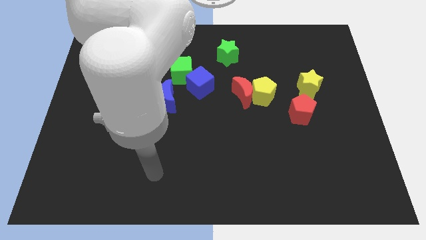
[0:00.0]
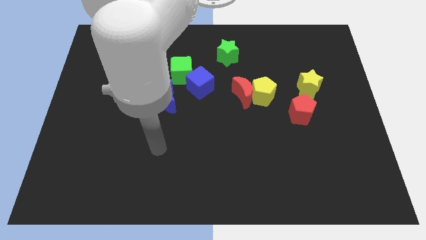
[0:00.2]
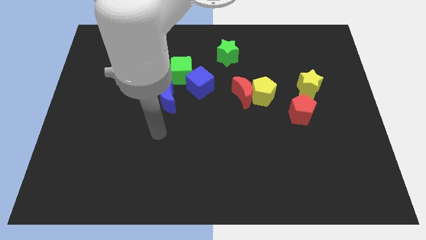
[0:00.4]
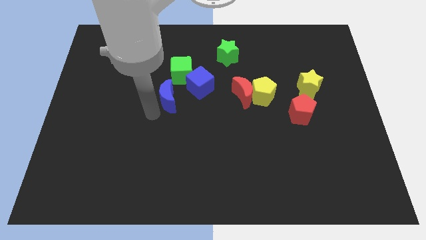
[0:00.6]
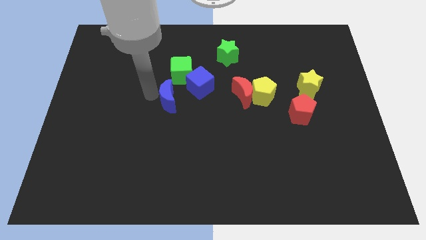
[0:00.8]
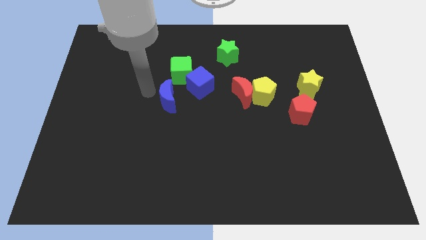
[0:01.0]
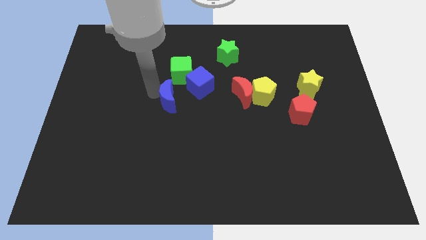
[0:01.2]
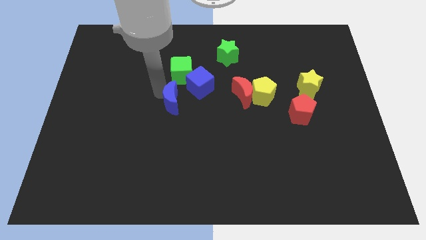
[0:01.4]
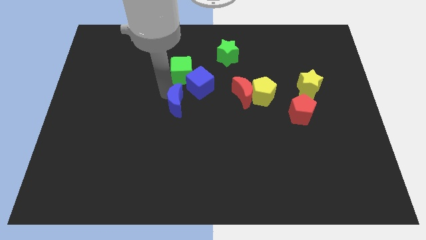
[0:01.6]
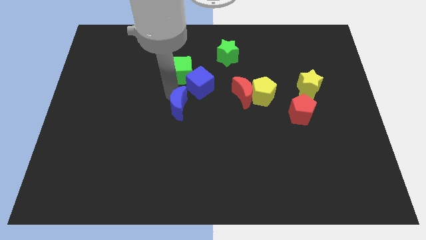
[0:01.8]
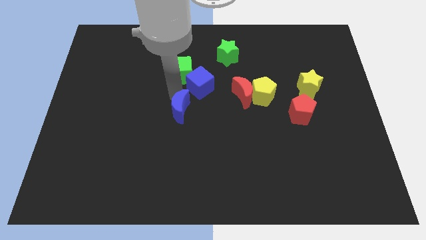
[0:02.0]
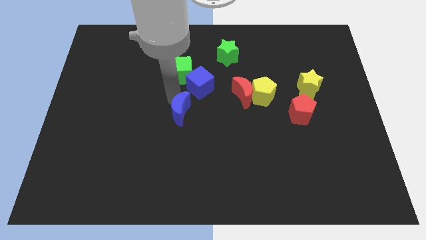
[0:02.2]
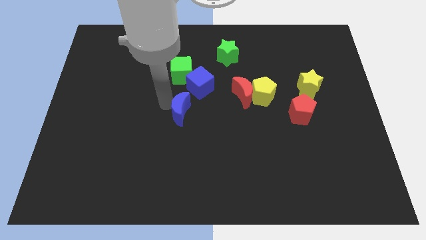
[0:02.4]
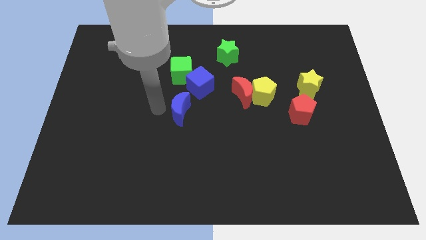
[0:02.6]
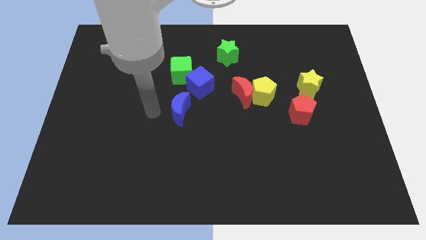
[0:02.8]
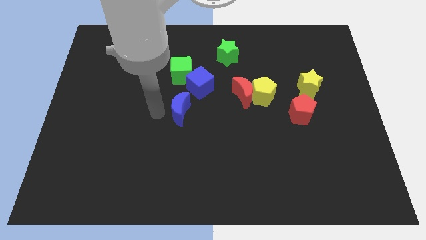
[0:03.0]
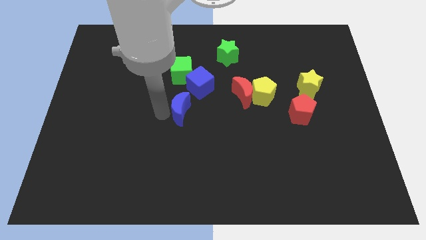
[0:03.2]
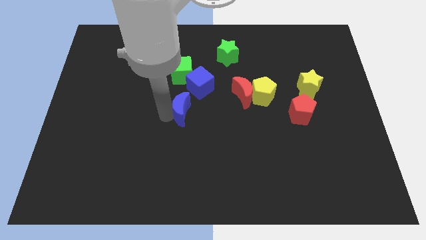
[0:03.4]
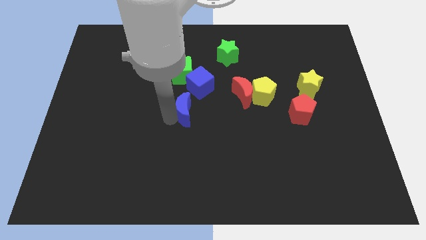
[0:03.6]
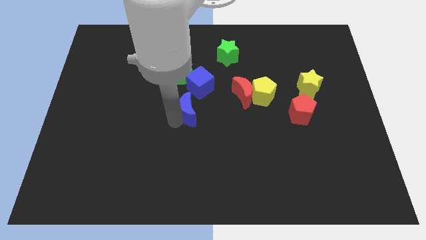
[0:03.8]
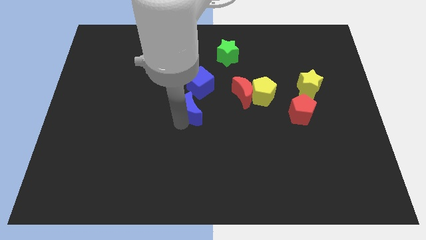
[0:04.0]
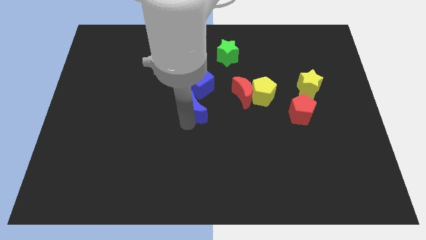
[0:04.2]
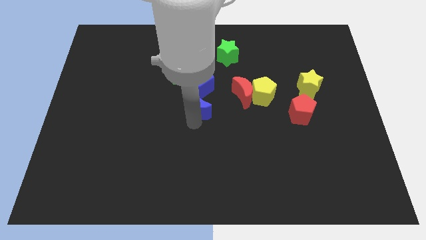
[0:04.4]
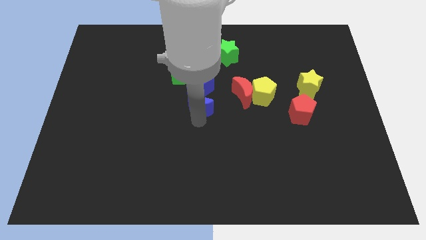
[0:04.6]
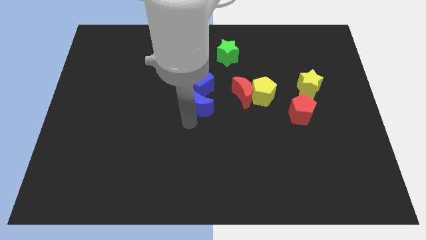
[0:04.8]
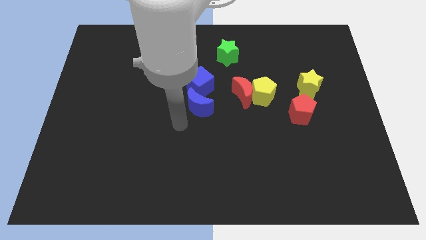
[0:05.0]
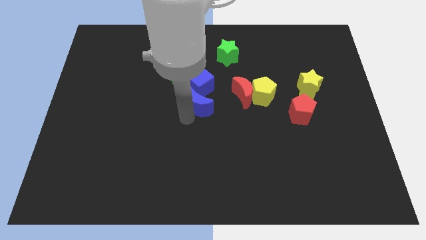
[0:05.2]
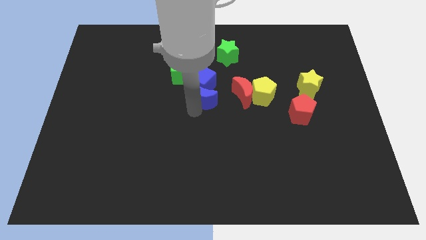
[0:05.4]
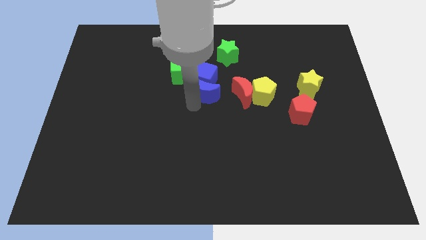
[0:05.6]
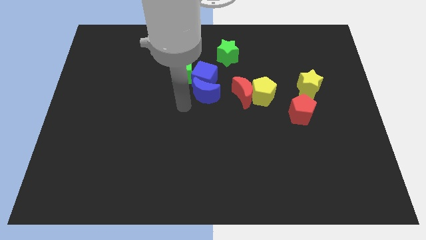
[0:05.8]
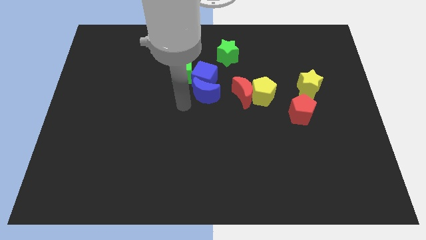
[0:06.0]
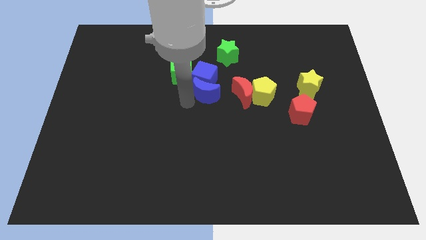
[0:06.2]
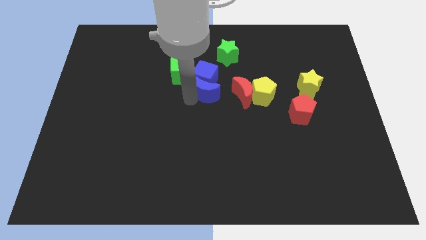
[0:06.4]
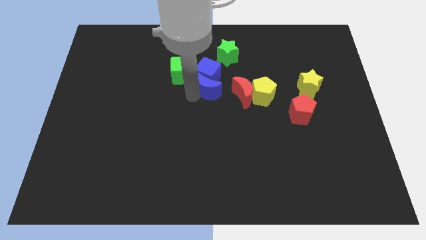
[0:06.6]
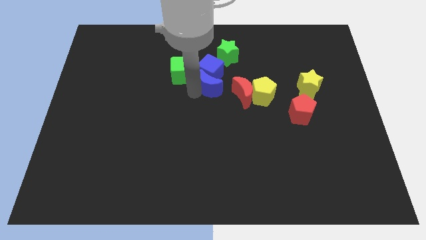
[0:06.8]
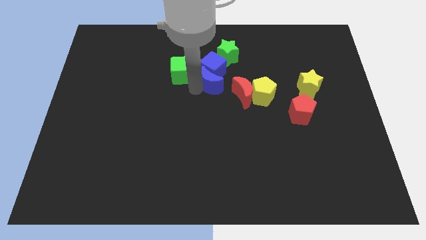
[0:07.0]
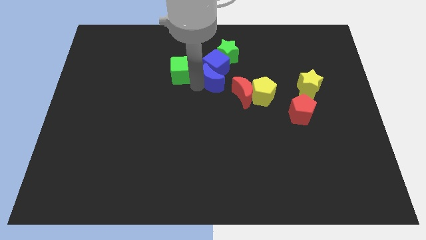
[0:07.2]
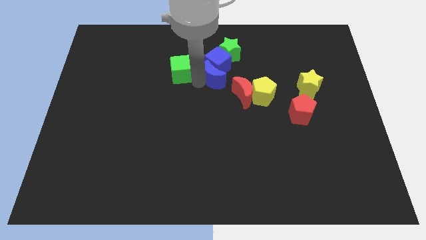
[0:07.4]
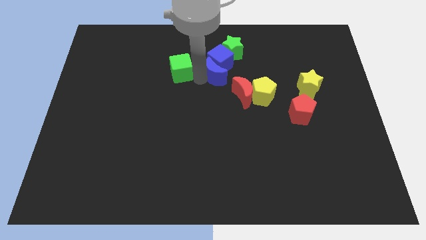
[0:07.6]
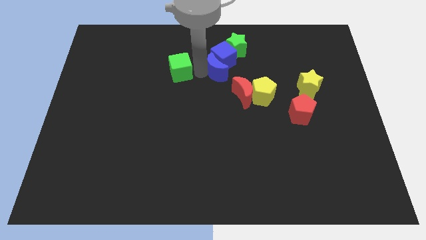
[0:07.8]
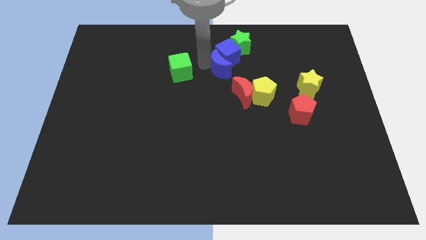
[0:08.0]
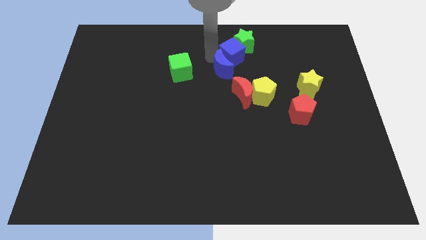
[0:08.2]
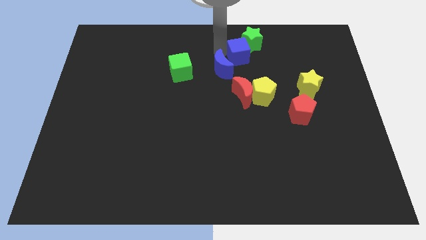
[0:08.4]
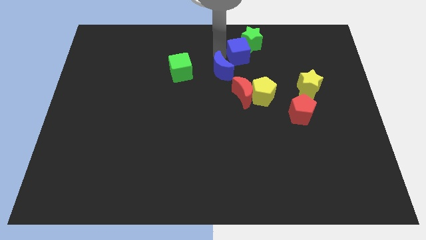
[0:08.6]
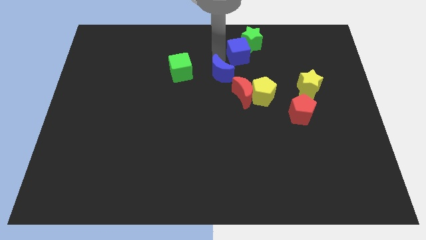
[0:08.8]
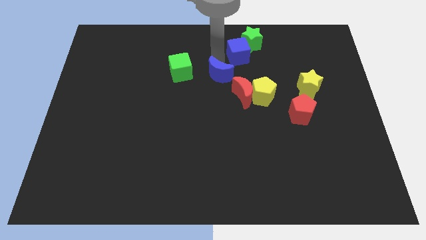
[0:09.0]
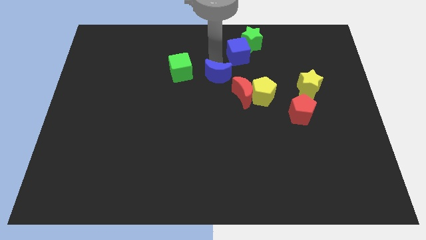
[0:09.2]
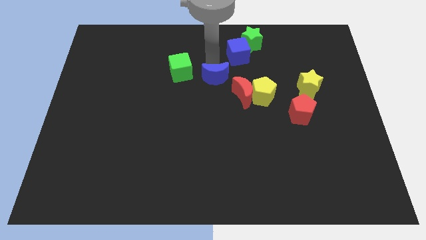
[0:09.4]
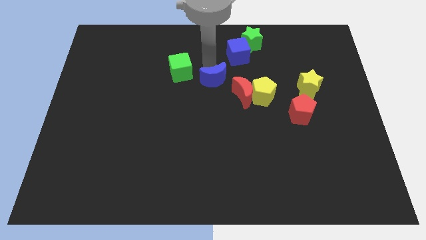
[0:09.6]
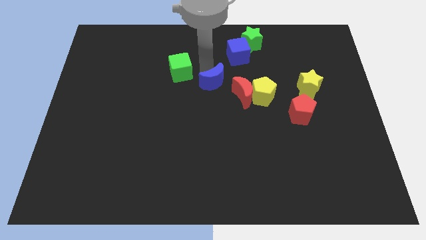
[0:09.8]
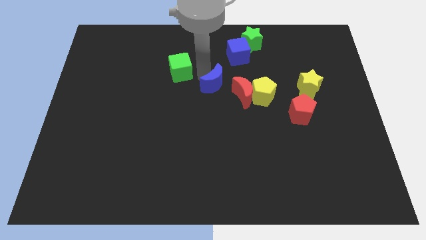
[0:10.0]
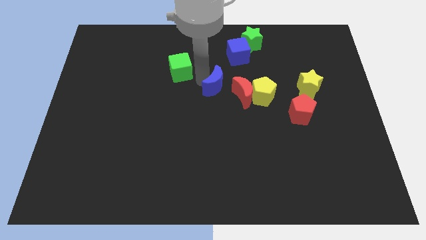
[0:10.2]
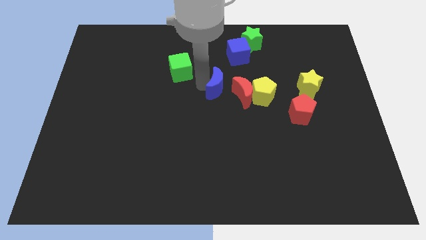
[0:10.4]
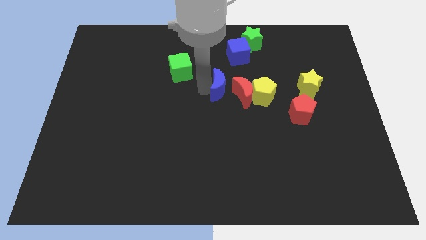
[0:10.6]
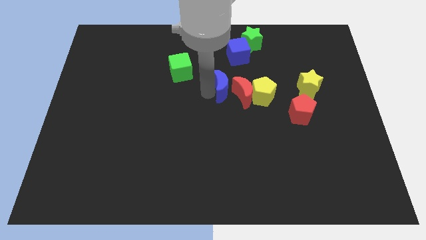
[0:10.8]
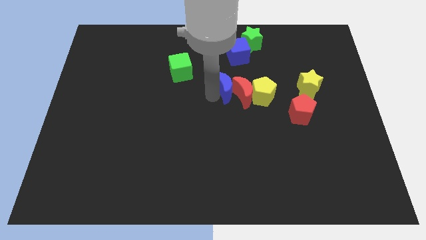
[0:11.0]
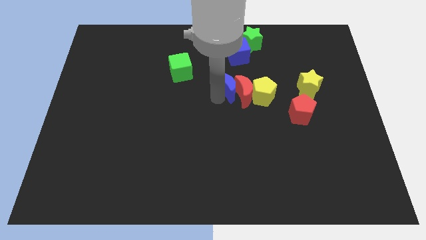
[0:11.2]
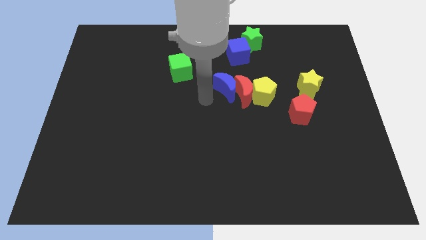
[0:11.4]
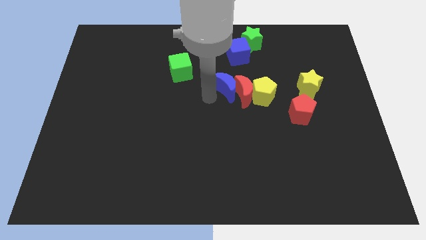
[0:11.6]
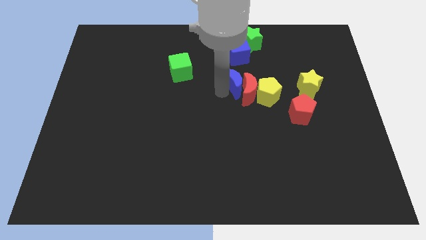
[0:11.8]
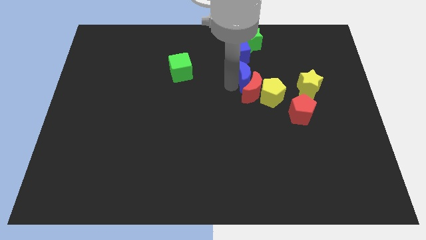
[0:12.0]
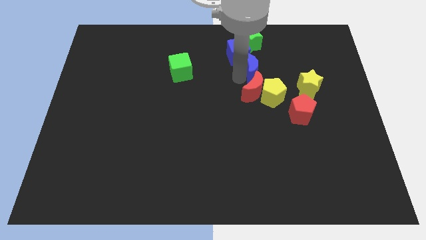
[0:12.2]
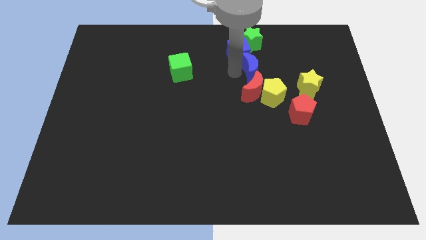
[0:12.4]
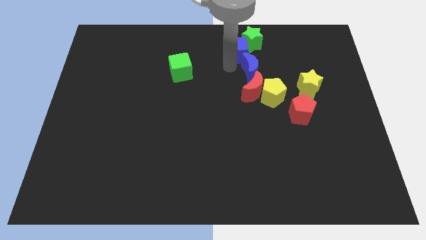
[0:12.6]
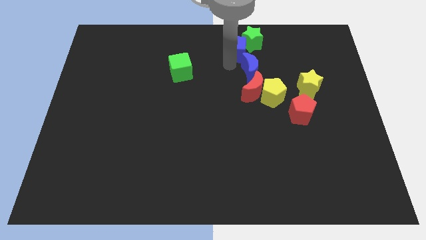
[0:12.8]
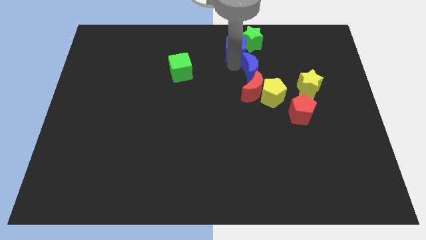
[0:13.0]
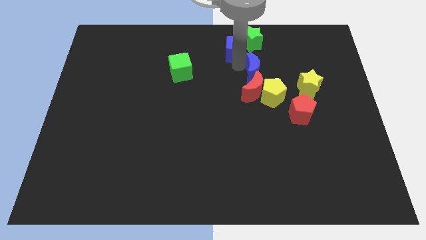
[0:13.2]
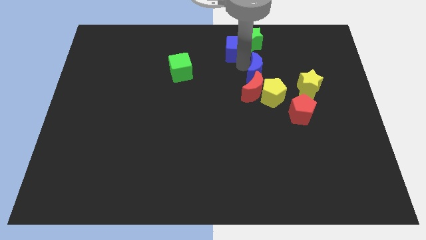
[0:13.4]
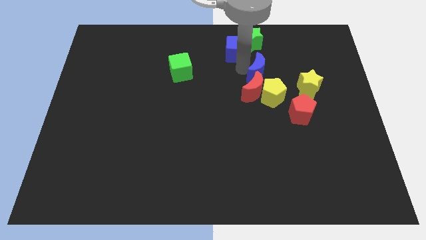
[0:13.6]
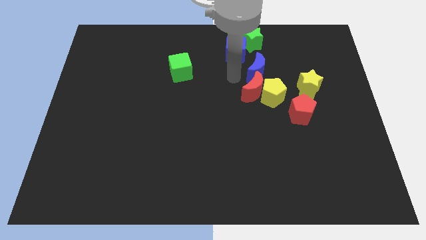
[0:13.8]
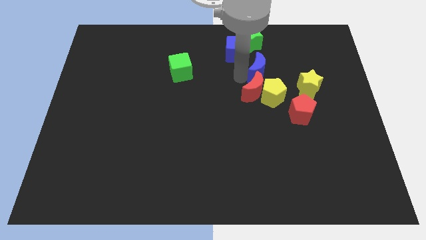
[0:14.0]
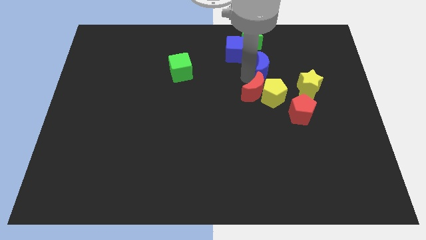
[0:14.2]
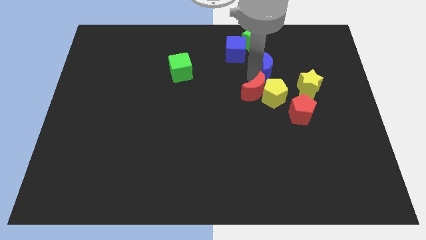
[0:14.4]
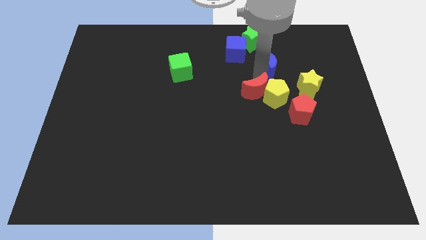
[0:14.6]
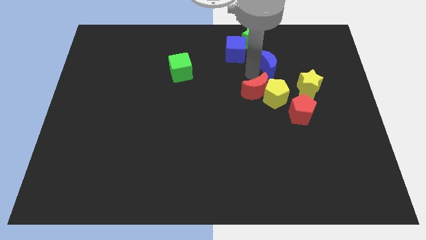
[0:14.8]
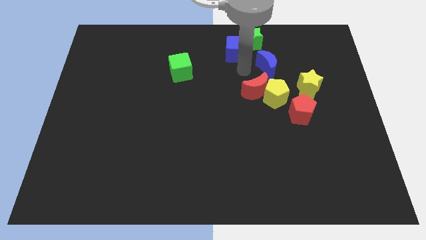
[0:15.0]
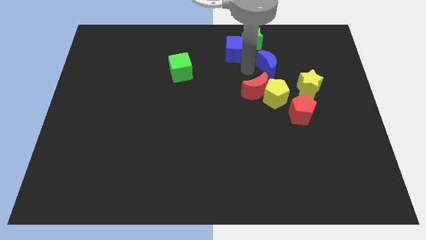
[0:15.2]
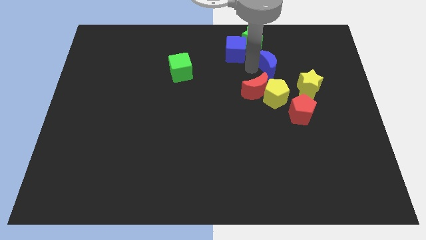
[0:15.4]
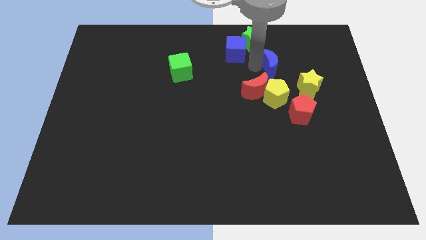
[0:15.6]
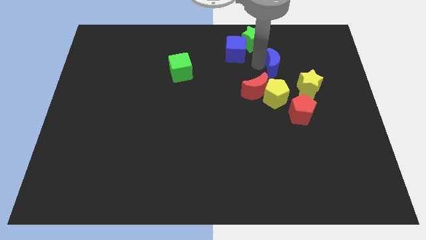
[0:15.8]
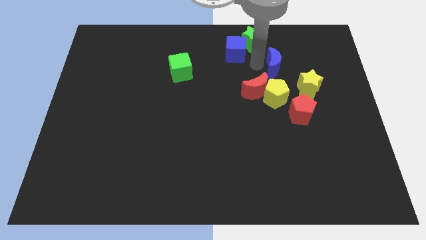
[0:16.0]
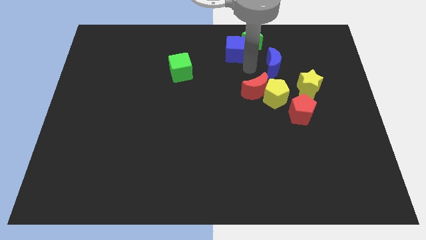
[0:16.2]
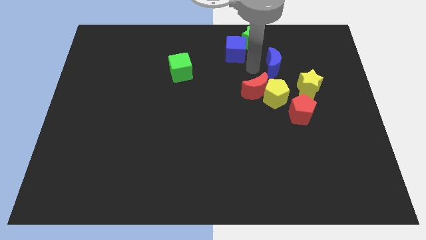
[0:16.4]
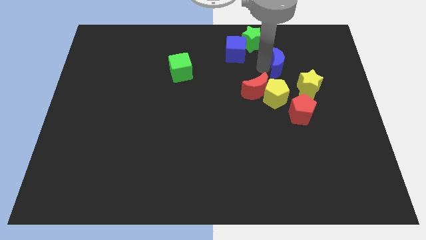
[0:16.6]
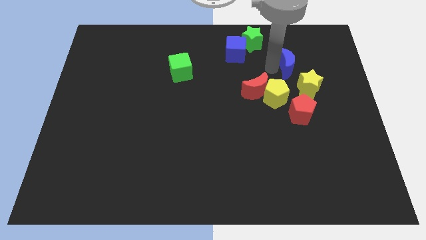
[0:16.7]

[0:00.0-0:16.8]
move the blue moon above the yellow star
